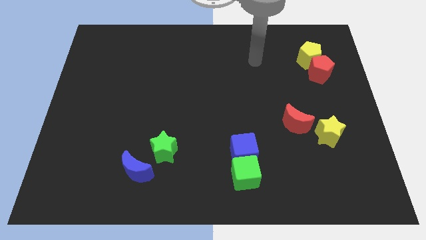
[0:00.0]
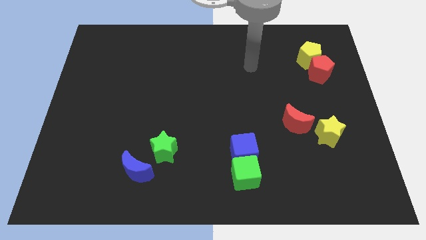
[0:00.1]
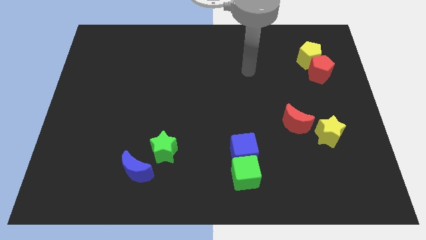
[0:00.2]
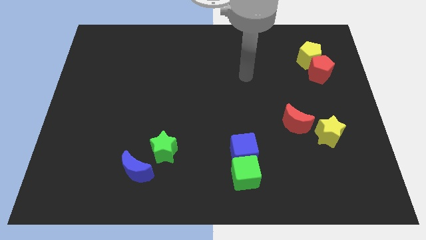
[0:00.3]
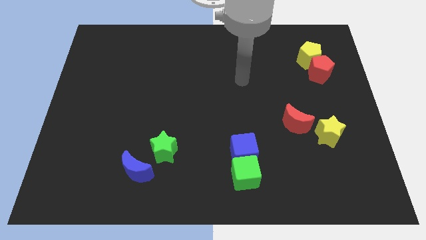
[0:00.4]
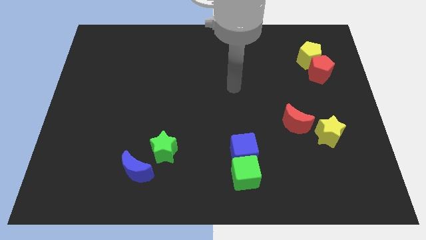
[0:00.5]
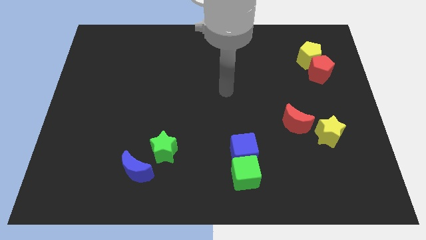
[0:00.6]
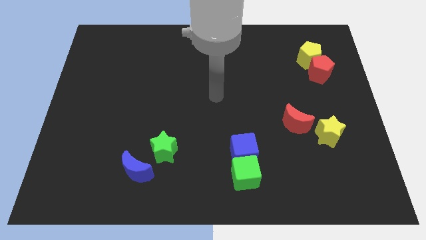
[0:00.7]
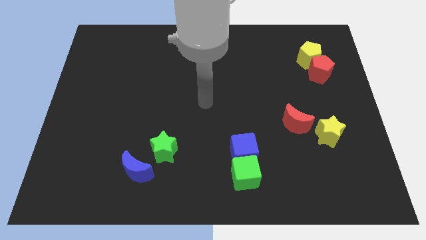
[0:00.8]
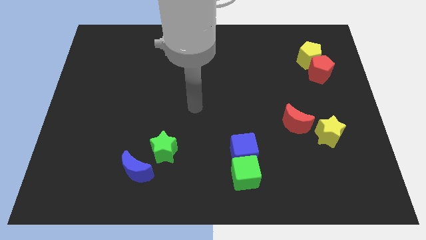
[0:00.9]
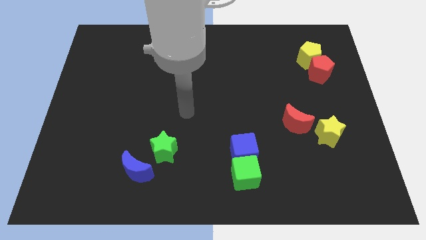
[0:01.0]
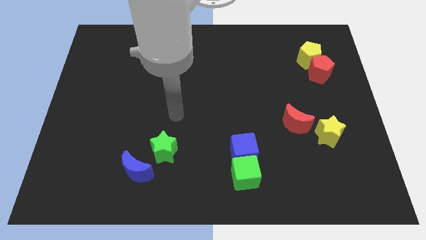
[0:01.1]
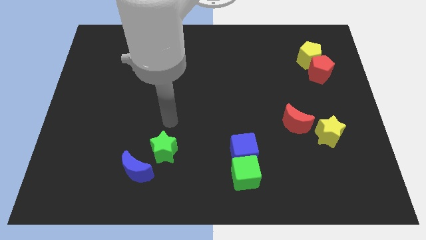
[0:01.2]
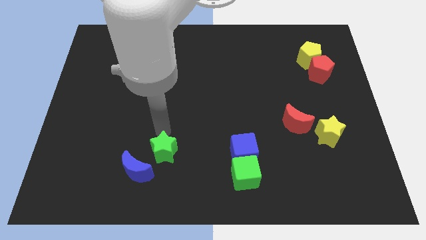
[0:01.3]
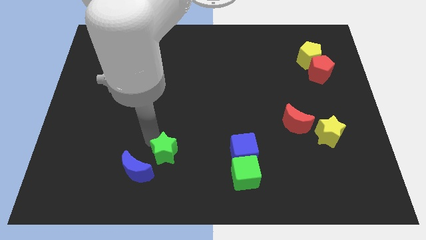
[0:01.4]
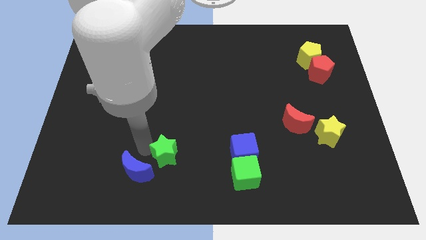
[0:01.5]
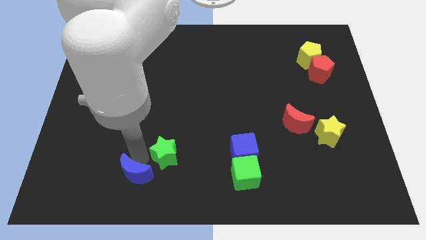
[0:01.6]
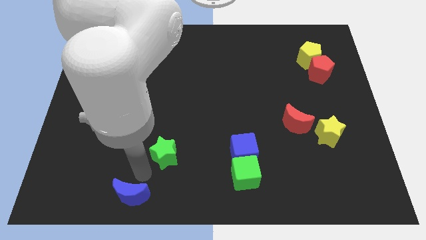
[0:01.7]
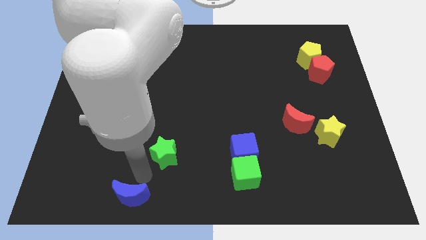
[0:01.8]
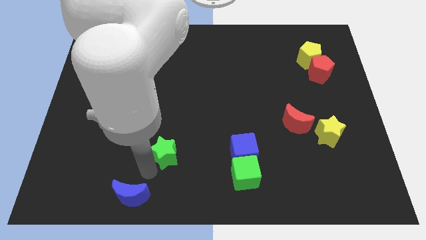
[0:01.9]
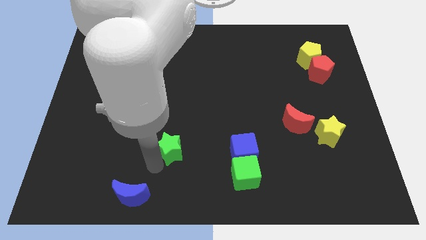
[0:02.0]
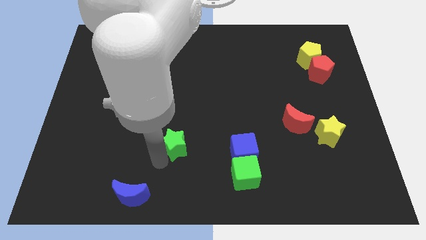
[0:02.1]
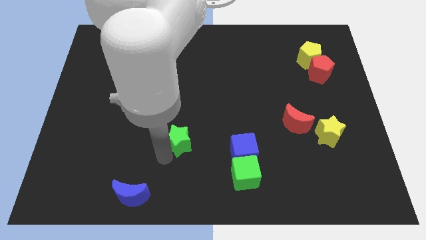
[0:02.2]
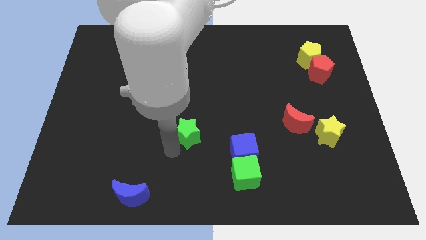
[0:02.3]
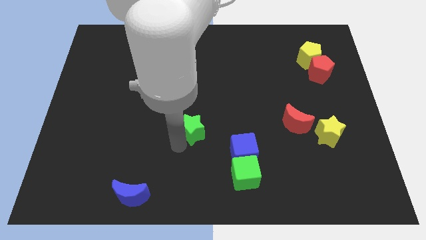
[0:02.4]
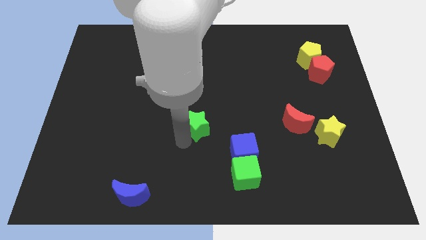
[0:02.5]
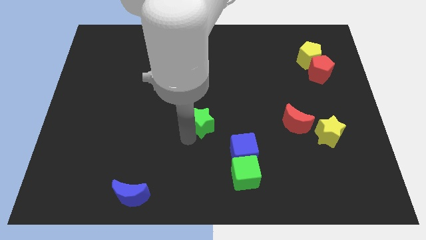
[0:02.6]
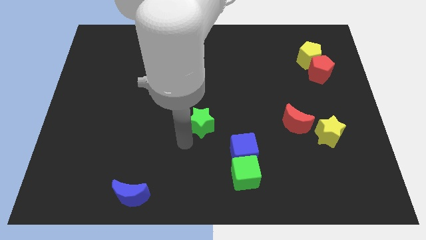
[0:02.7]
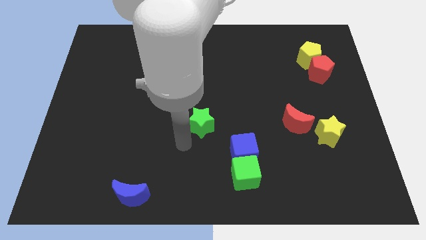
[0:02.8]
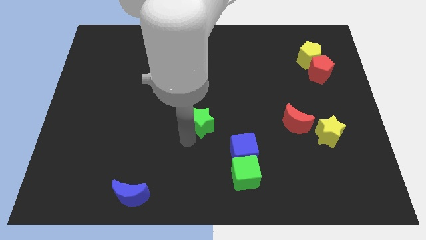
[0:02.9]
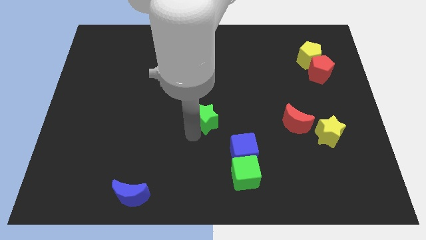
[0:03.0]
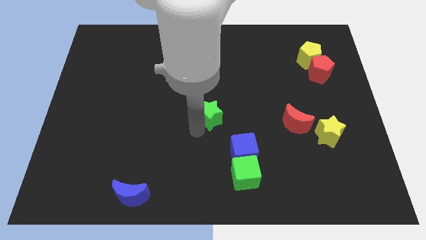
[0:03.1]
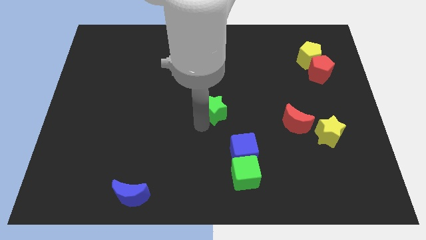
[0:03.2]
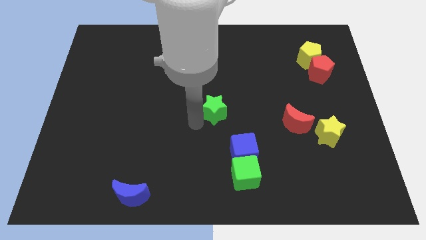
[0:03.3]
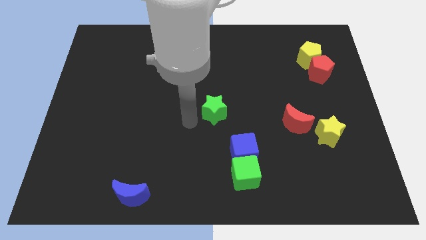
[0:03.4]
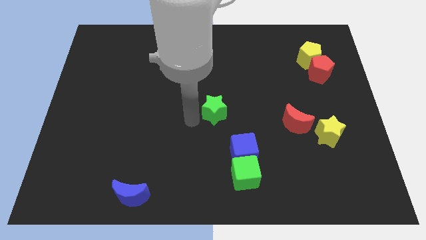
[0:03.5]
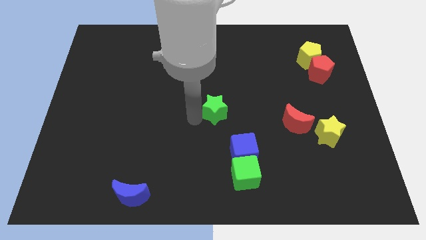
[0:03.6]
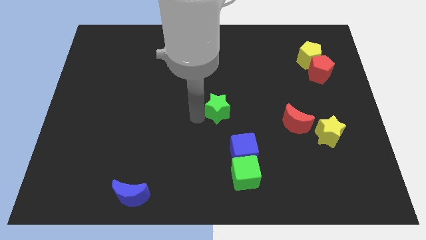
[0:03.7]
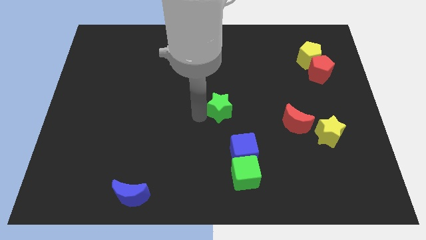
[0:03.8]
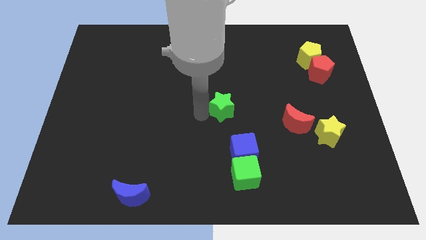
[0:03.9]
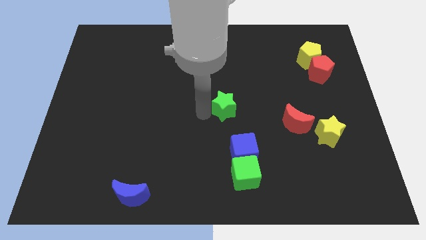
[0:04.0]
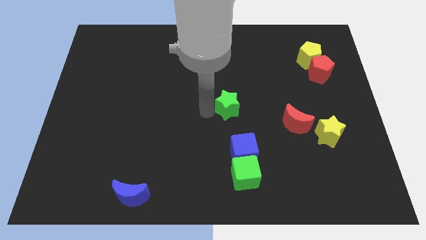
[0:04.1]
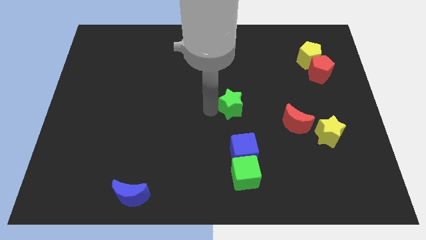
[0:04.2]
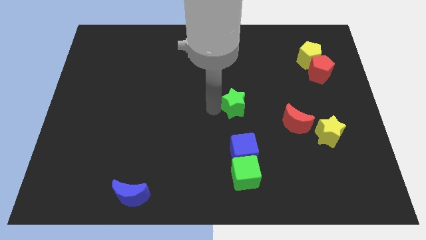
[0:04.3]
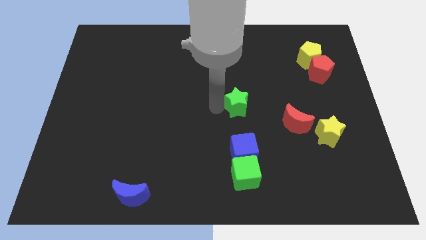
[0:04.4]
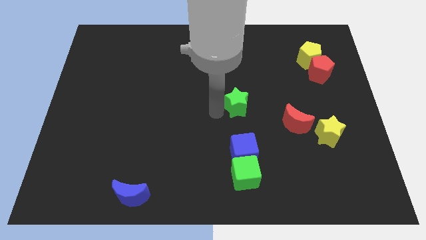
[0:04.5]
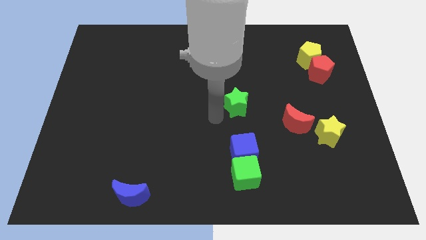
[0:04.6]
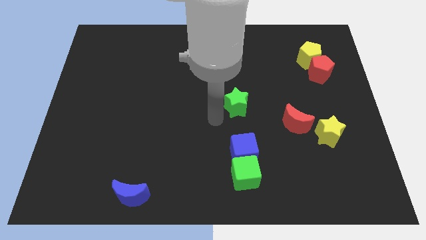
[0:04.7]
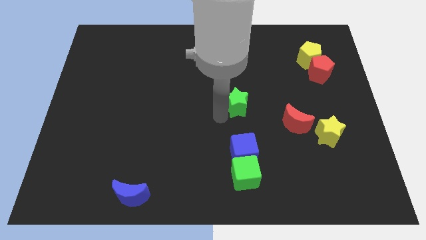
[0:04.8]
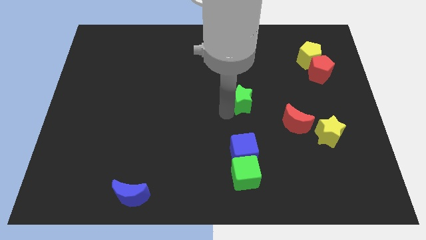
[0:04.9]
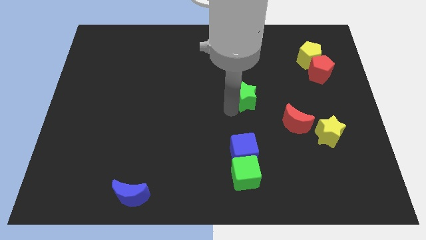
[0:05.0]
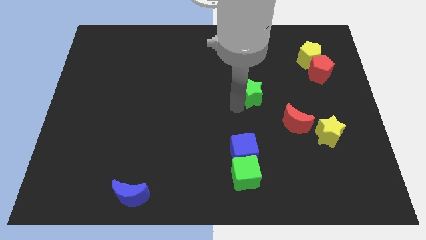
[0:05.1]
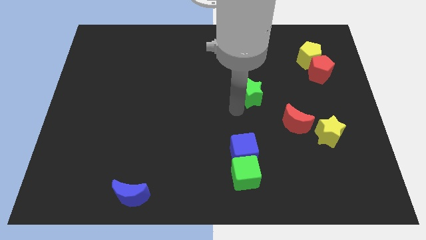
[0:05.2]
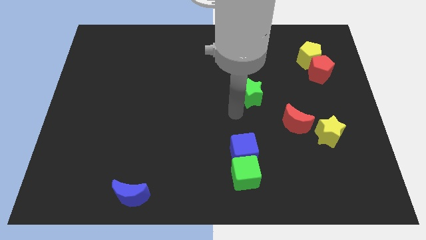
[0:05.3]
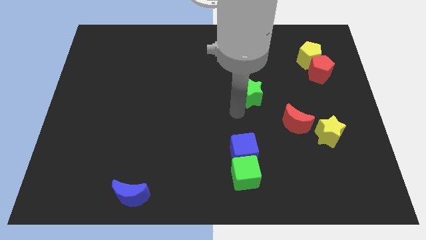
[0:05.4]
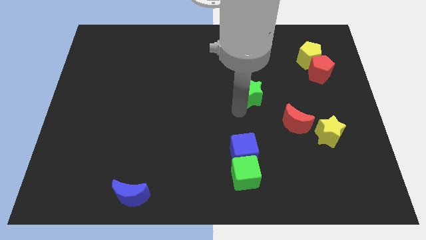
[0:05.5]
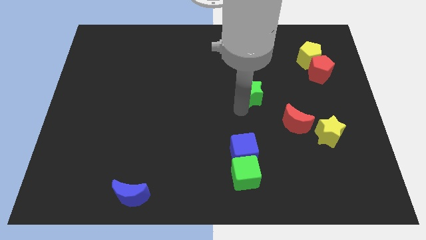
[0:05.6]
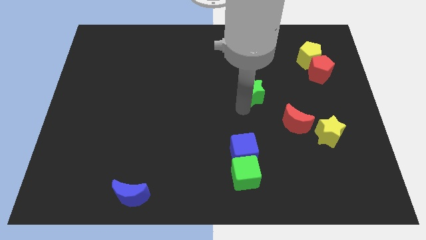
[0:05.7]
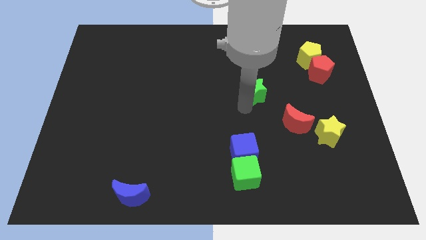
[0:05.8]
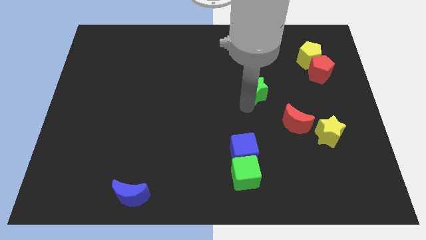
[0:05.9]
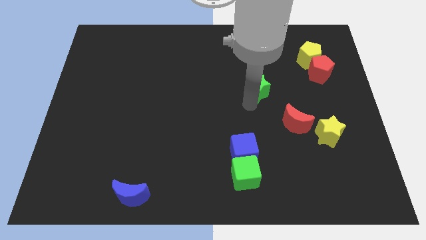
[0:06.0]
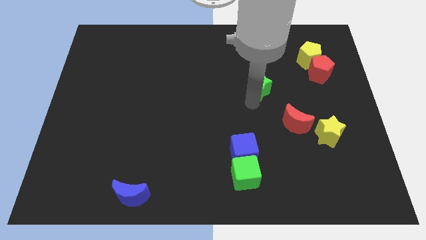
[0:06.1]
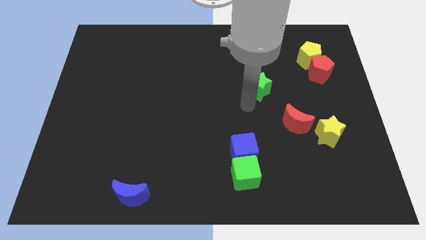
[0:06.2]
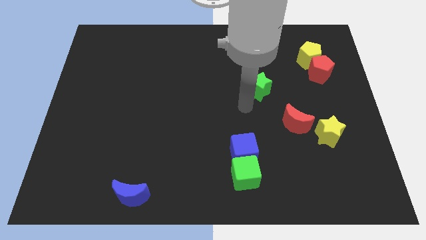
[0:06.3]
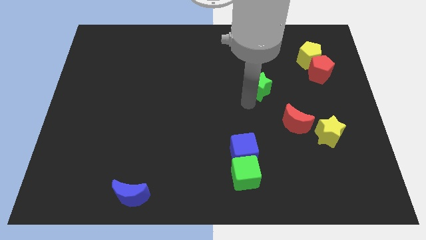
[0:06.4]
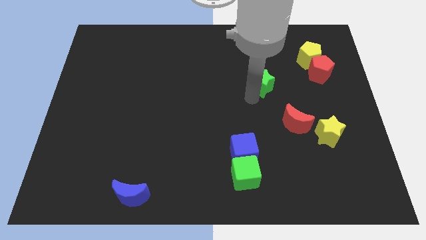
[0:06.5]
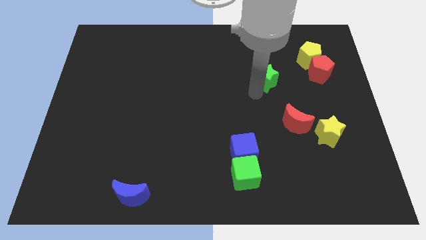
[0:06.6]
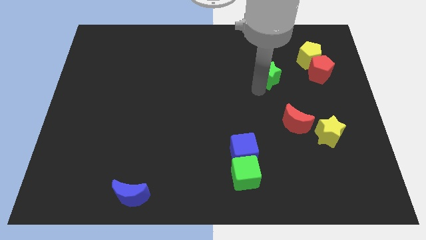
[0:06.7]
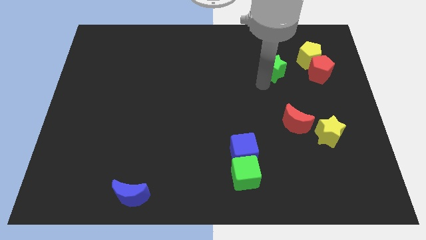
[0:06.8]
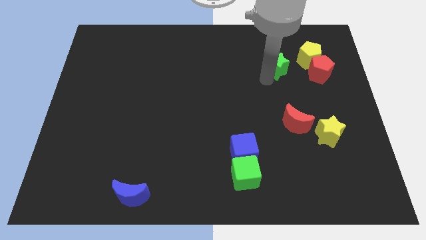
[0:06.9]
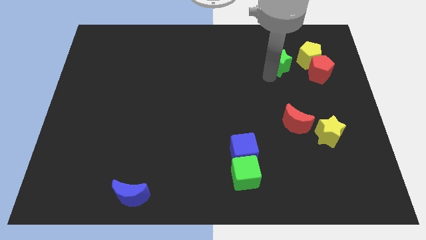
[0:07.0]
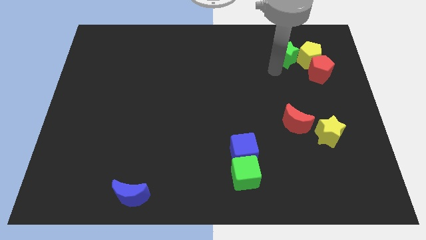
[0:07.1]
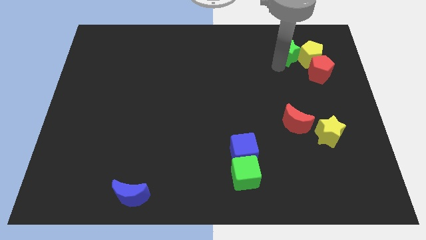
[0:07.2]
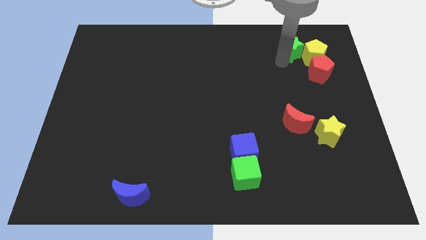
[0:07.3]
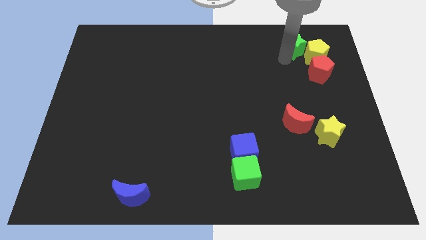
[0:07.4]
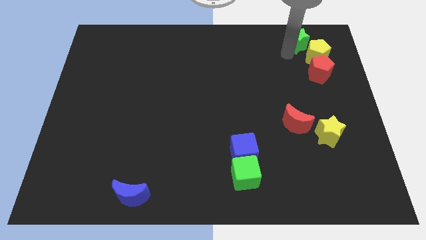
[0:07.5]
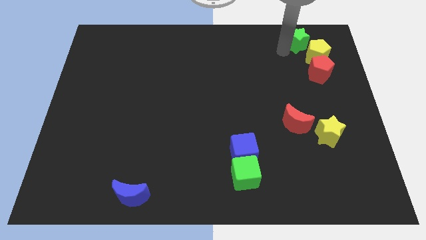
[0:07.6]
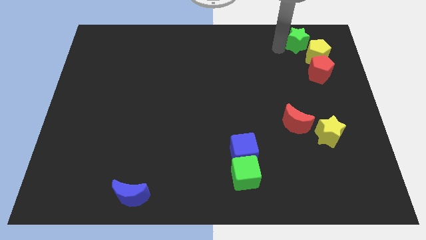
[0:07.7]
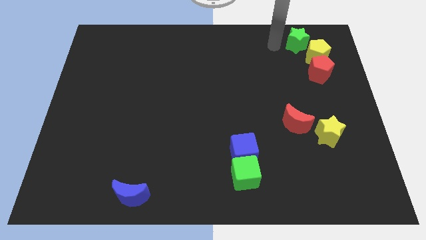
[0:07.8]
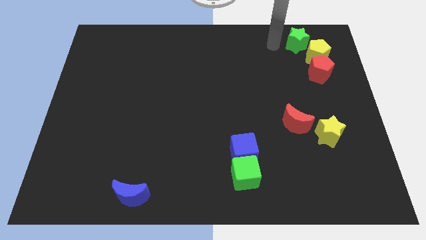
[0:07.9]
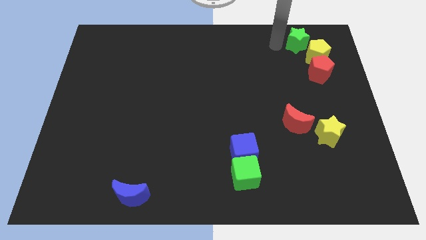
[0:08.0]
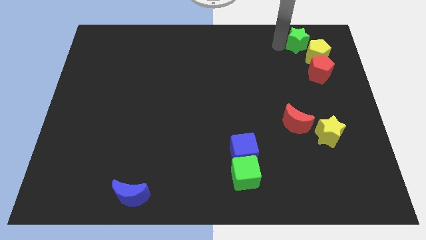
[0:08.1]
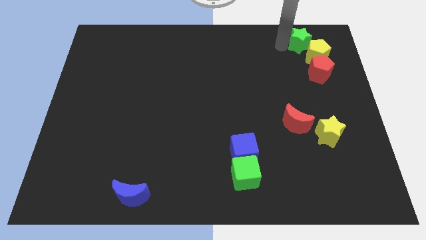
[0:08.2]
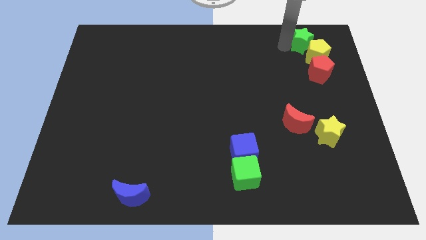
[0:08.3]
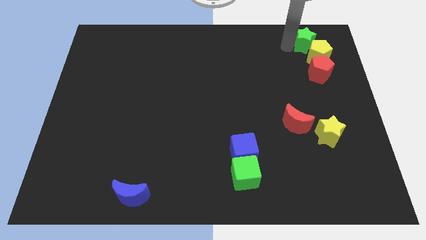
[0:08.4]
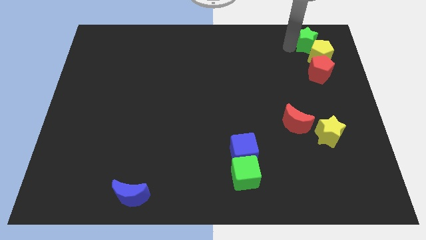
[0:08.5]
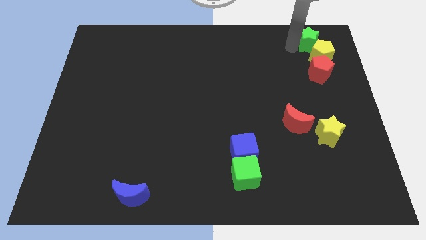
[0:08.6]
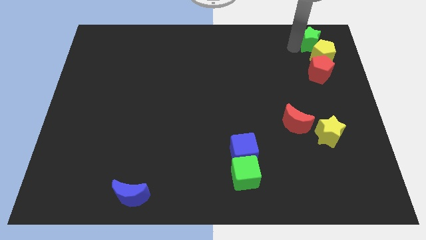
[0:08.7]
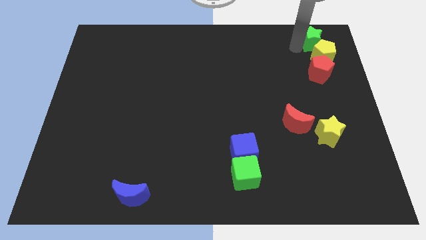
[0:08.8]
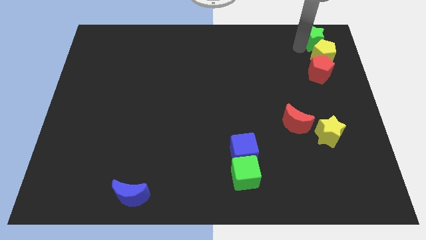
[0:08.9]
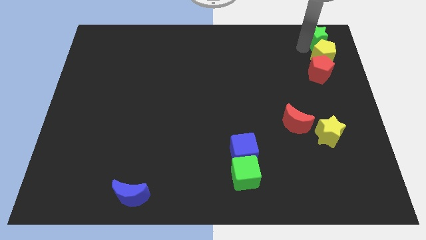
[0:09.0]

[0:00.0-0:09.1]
move the green star to the upper right corner
